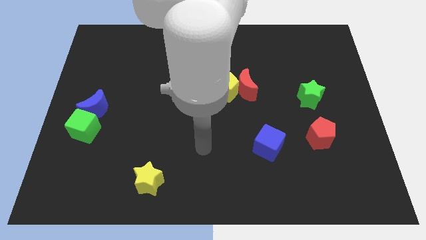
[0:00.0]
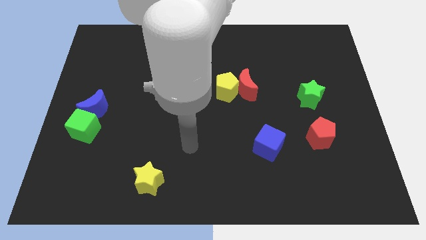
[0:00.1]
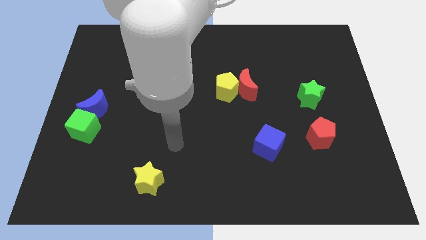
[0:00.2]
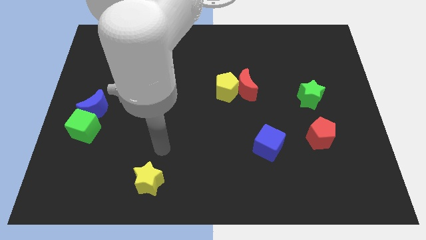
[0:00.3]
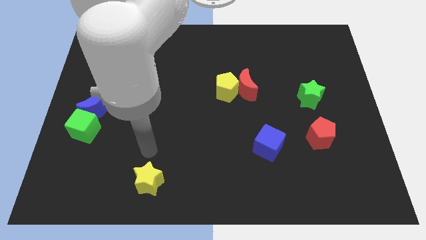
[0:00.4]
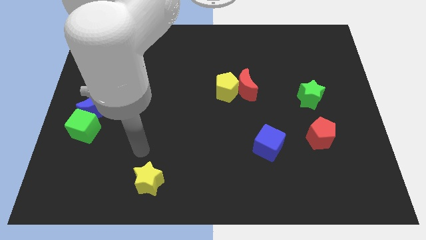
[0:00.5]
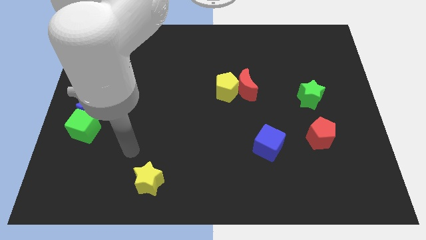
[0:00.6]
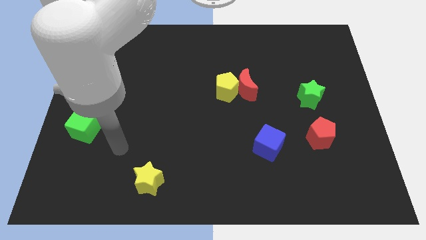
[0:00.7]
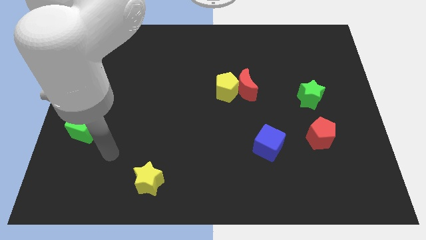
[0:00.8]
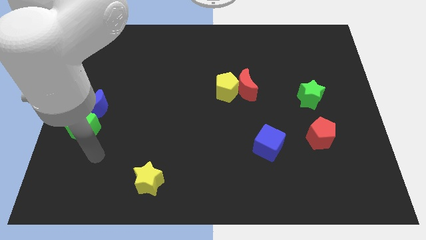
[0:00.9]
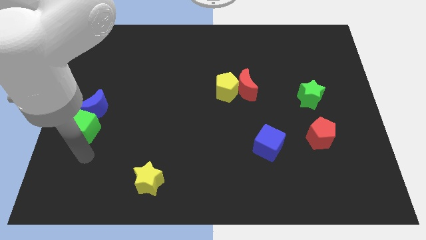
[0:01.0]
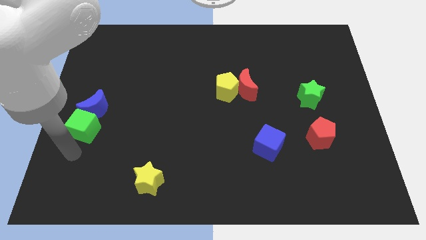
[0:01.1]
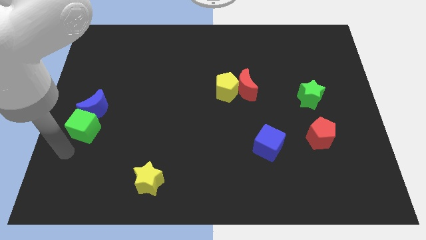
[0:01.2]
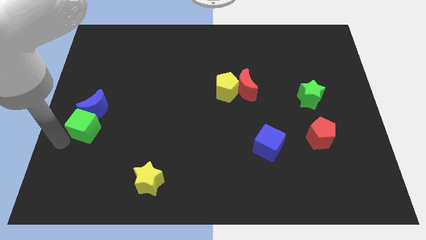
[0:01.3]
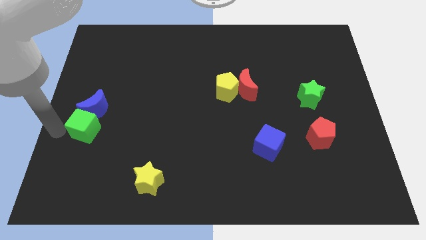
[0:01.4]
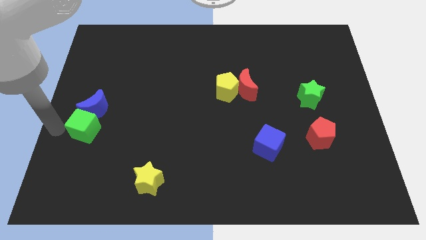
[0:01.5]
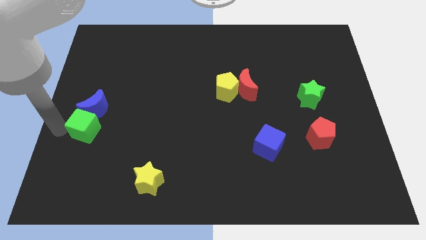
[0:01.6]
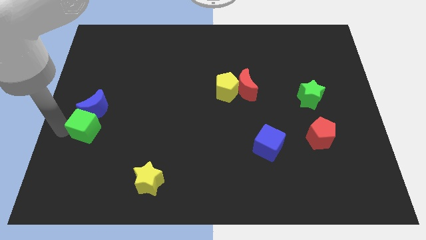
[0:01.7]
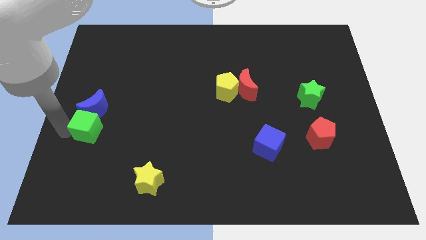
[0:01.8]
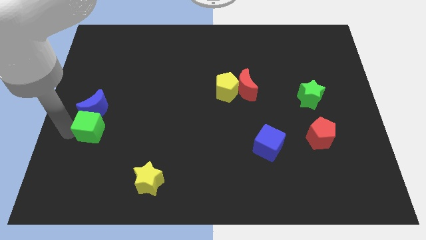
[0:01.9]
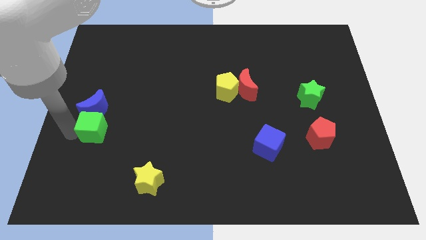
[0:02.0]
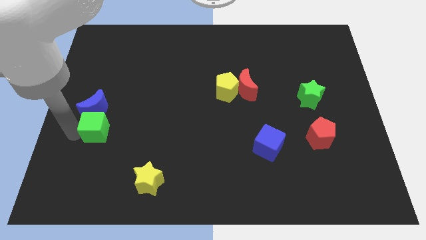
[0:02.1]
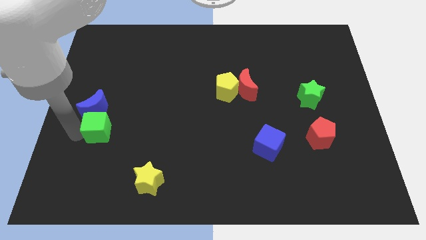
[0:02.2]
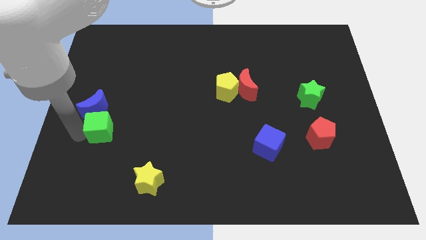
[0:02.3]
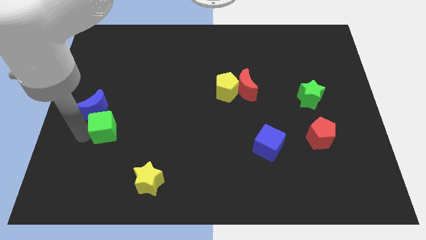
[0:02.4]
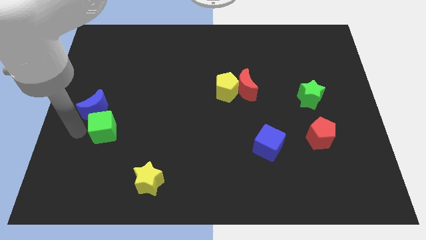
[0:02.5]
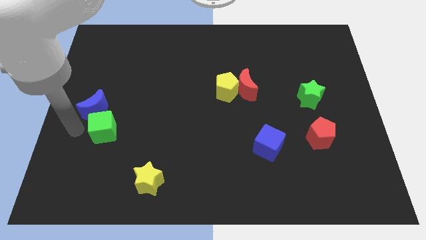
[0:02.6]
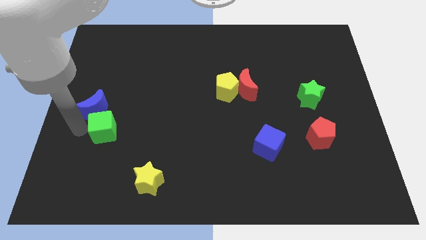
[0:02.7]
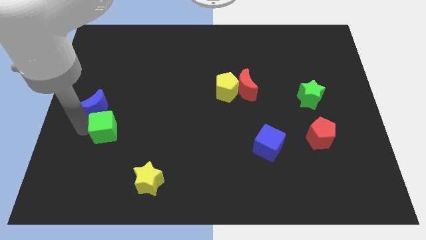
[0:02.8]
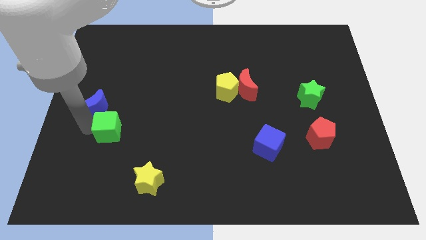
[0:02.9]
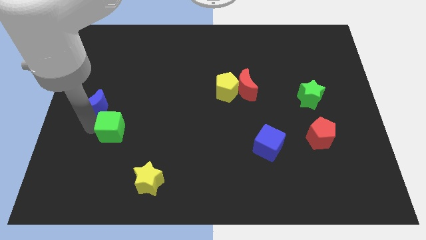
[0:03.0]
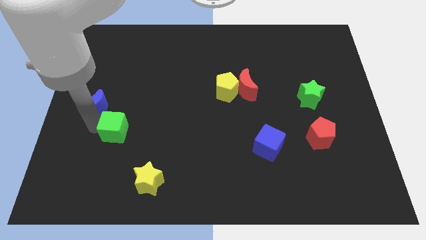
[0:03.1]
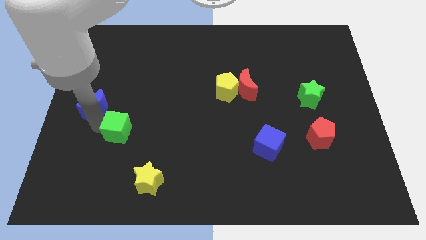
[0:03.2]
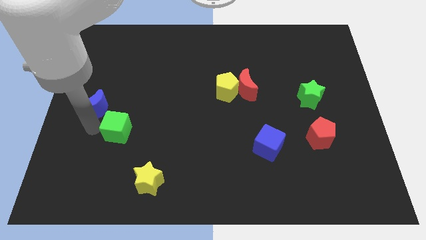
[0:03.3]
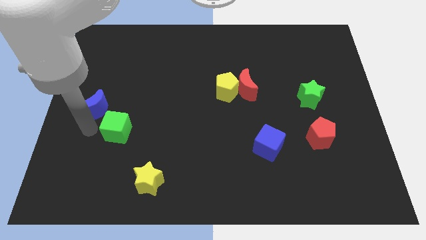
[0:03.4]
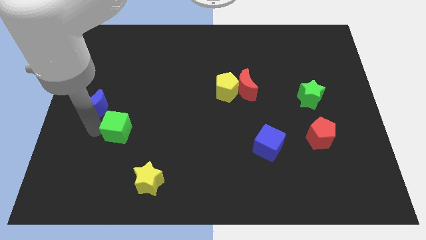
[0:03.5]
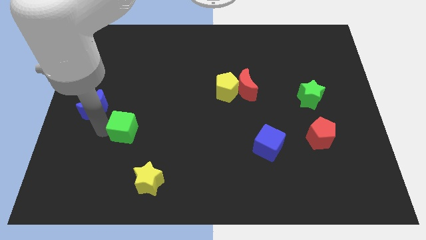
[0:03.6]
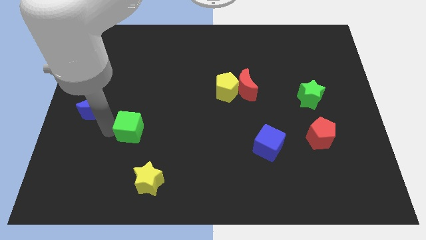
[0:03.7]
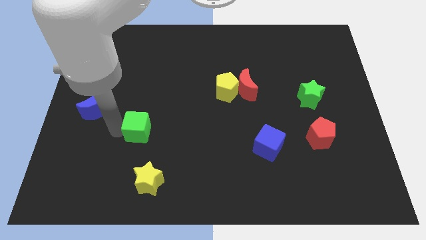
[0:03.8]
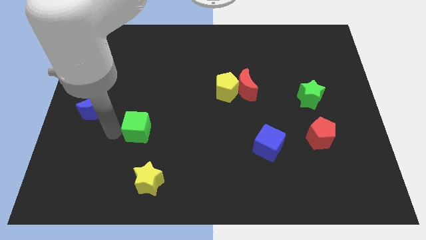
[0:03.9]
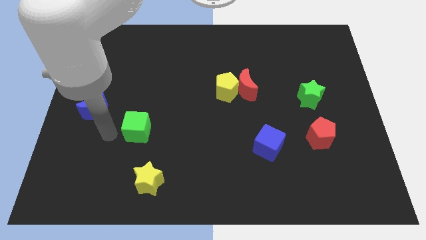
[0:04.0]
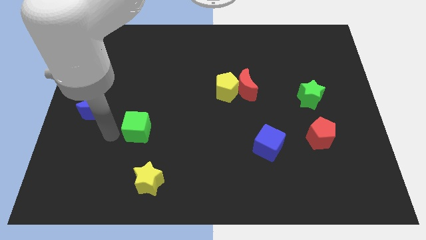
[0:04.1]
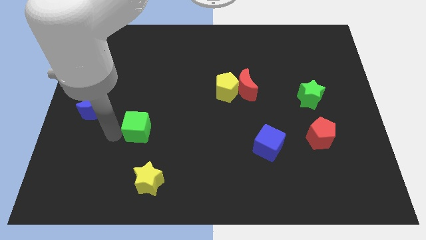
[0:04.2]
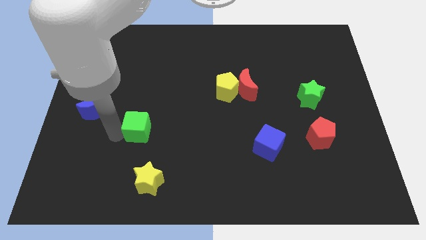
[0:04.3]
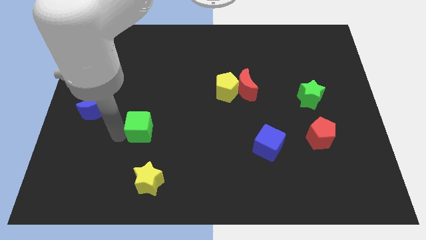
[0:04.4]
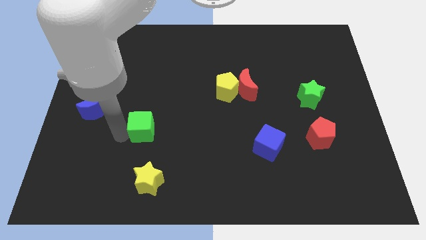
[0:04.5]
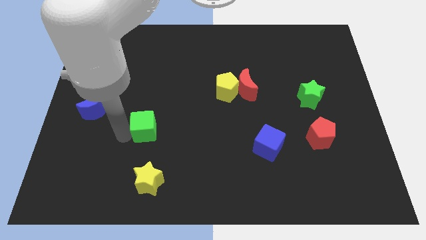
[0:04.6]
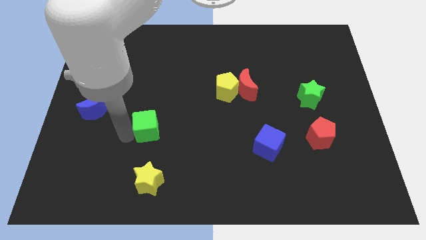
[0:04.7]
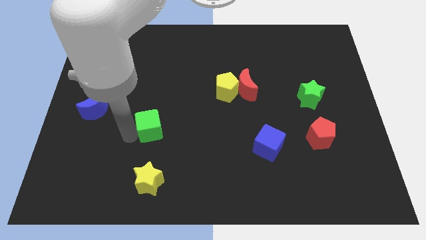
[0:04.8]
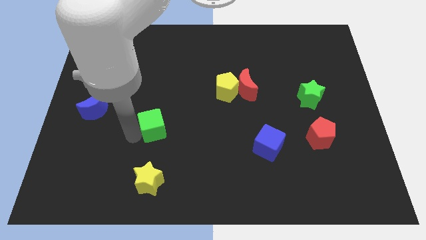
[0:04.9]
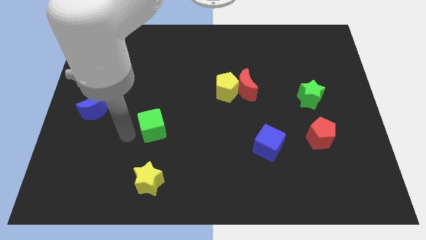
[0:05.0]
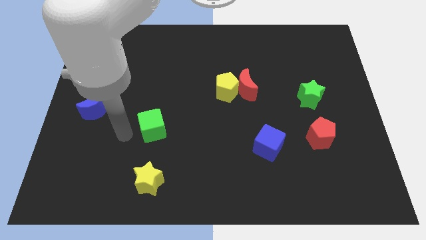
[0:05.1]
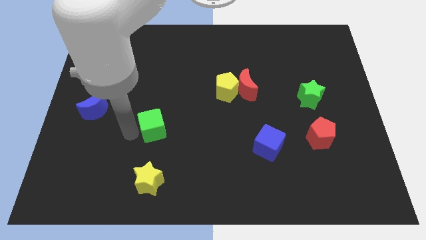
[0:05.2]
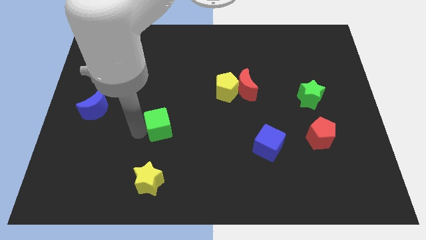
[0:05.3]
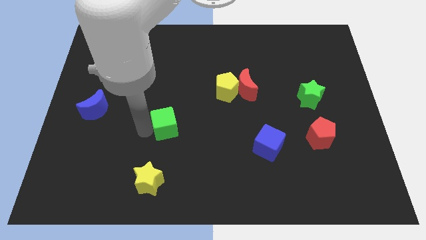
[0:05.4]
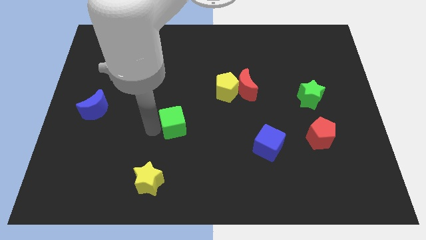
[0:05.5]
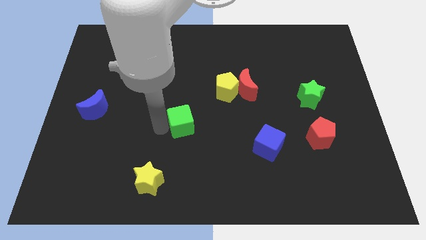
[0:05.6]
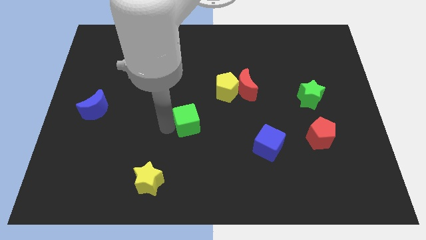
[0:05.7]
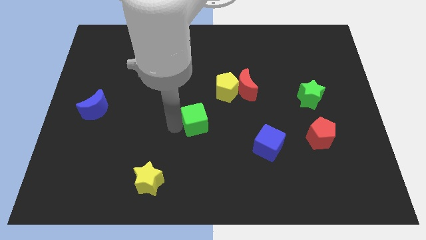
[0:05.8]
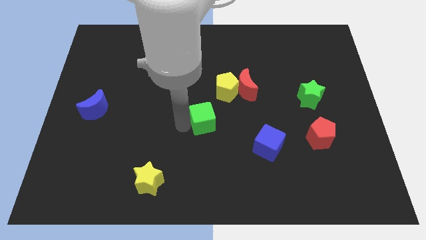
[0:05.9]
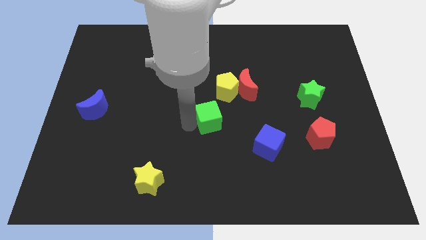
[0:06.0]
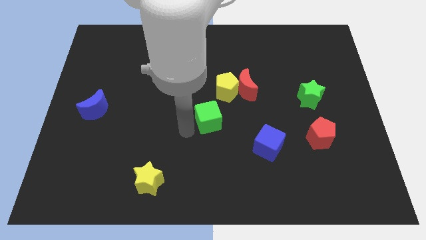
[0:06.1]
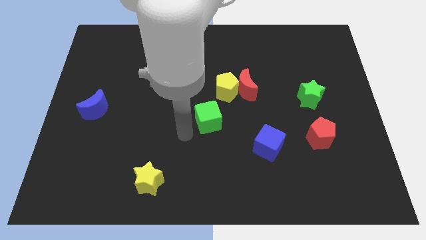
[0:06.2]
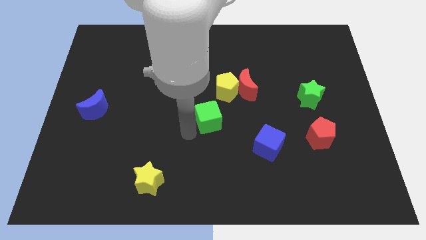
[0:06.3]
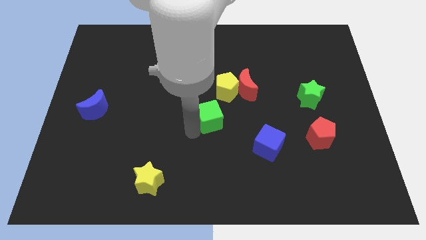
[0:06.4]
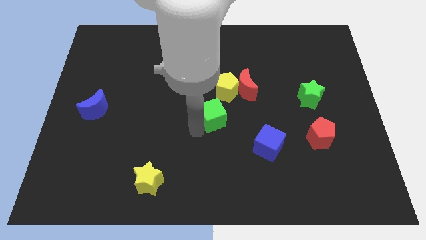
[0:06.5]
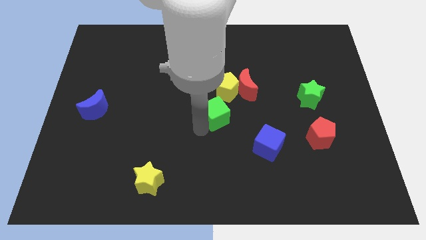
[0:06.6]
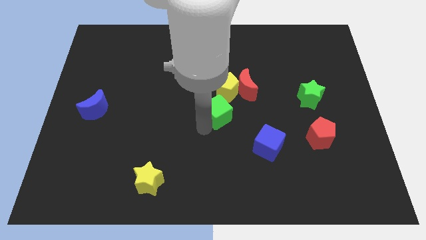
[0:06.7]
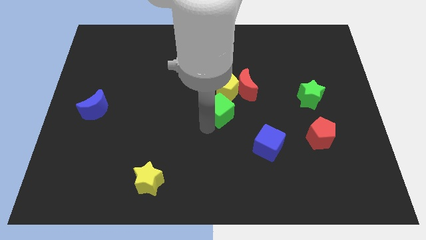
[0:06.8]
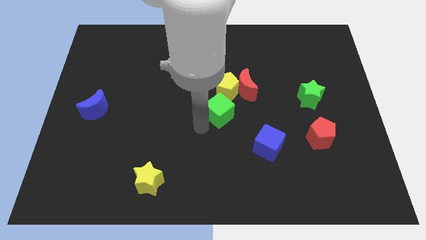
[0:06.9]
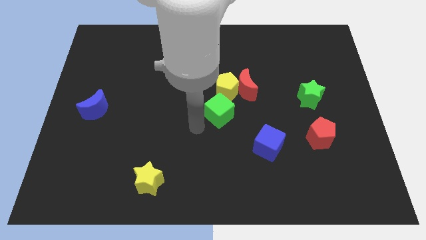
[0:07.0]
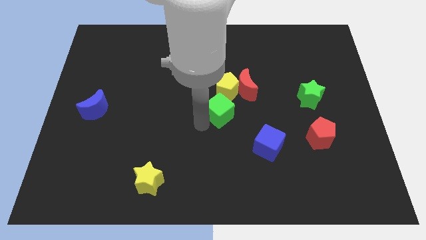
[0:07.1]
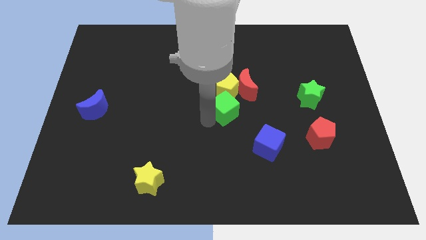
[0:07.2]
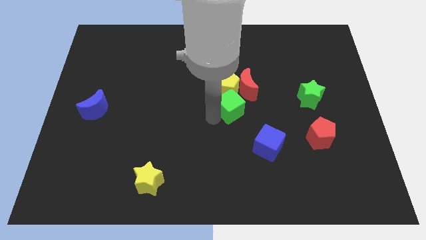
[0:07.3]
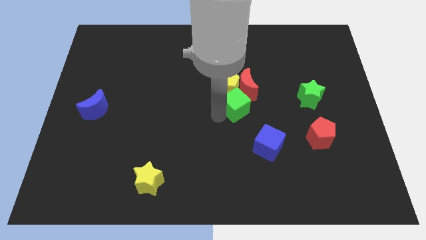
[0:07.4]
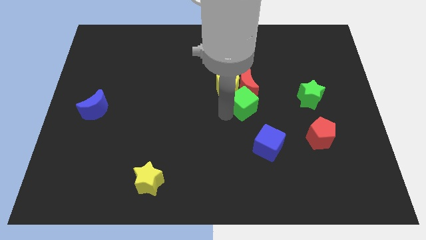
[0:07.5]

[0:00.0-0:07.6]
put the green cube towards the red moon
